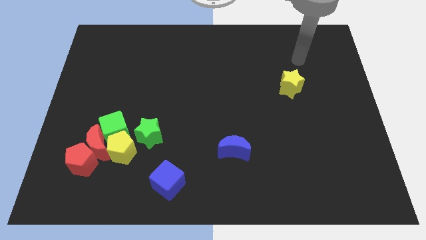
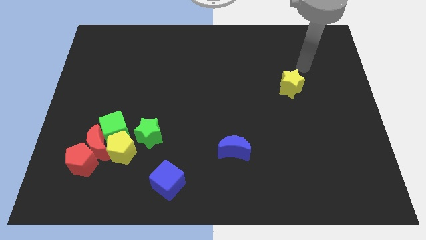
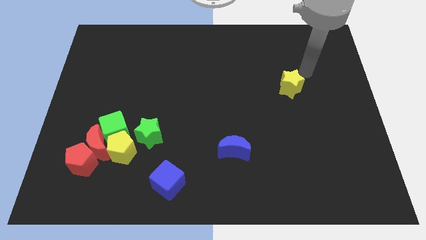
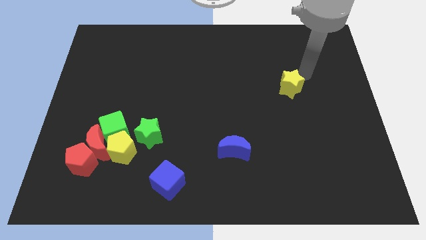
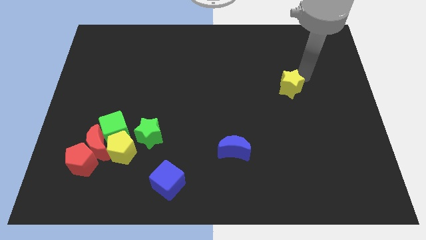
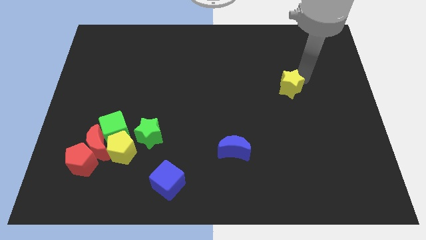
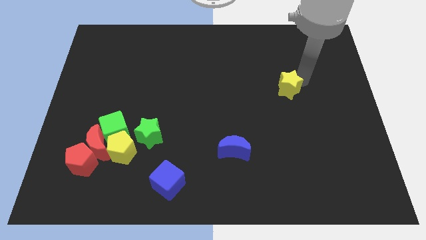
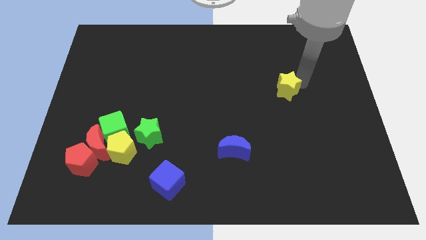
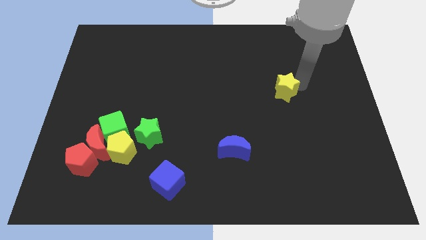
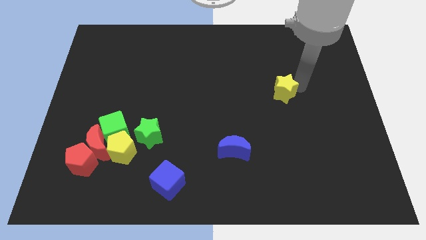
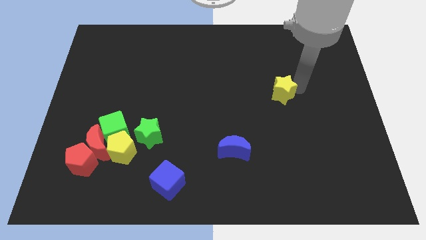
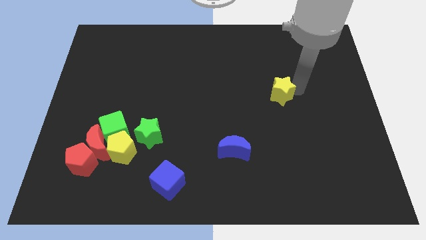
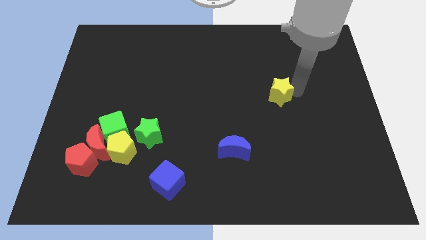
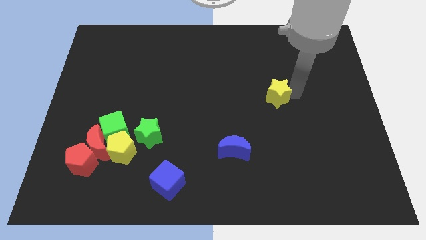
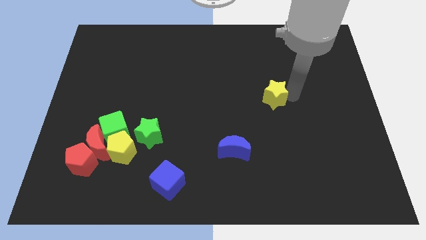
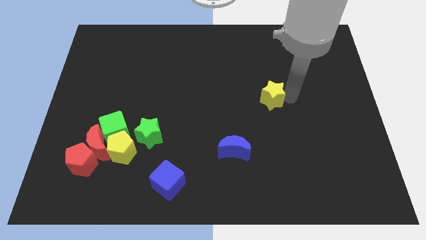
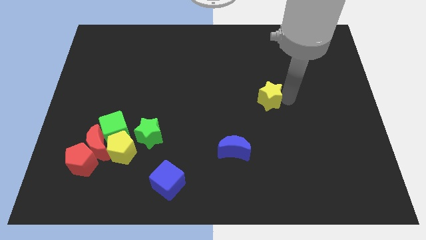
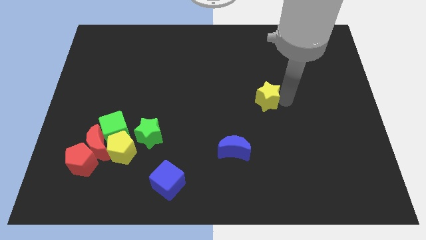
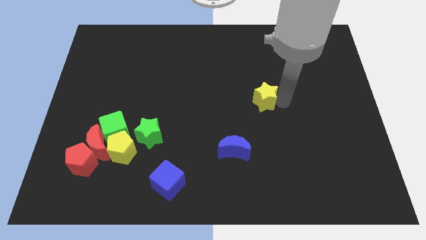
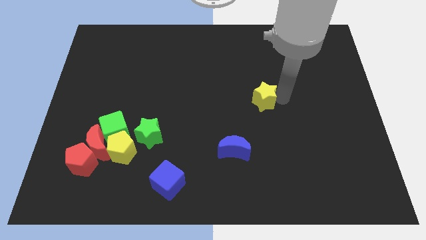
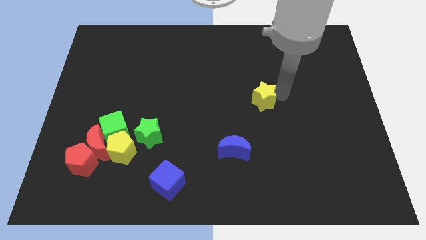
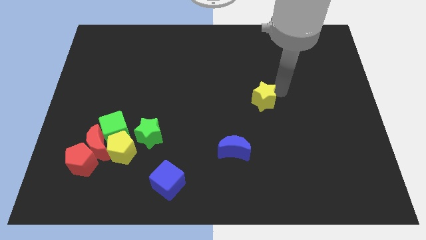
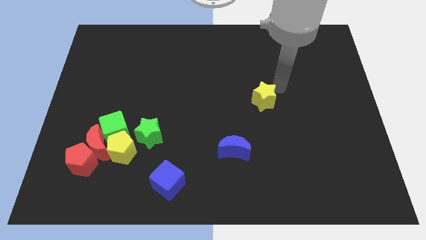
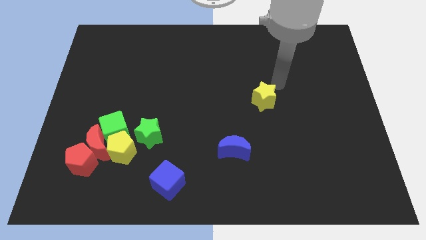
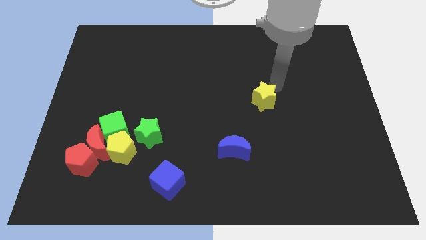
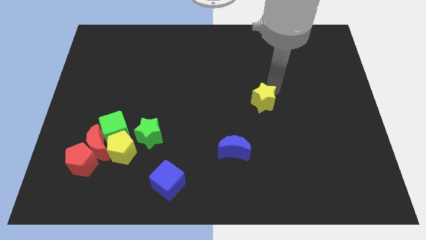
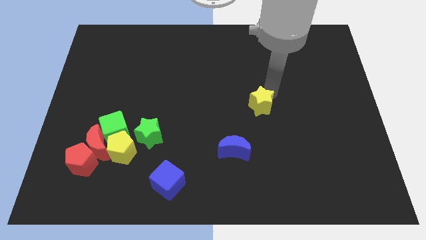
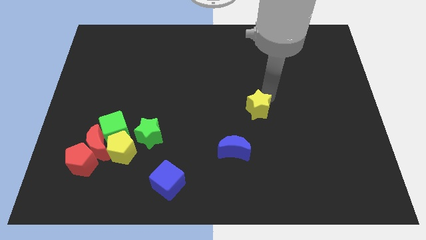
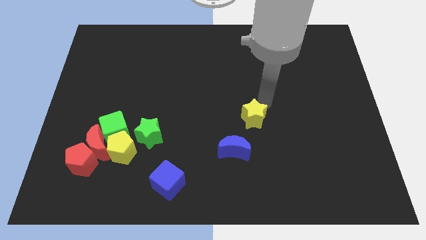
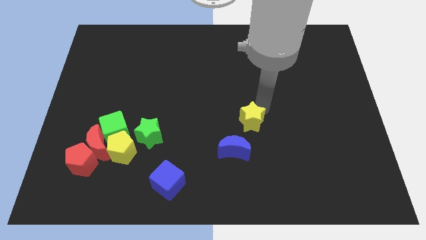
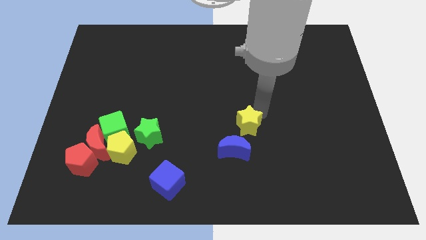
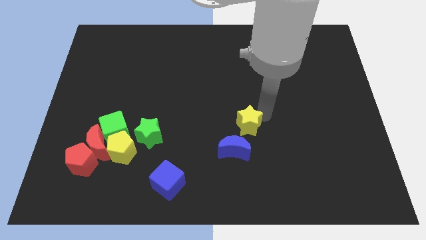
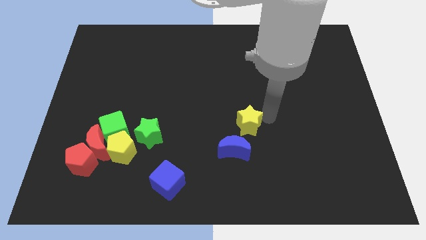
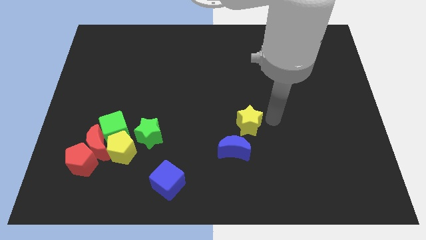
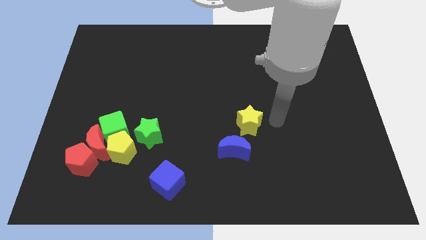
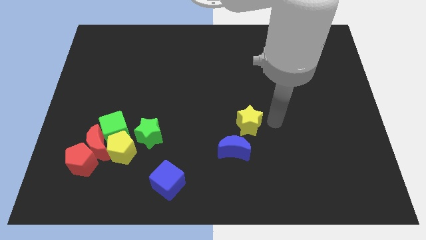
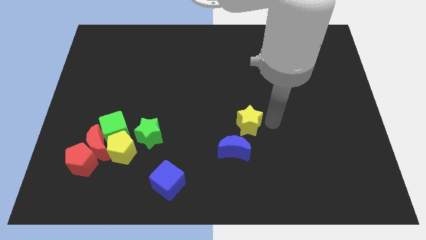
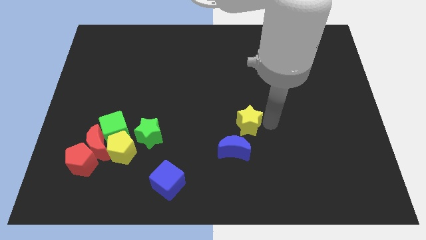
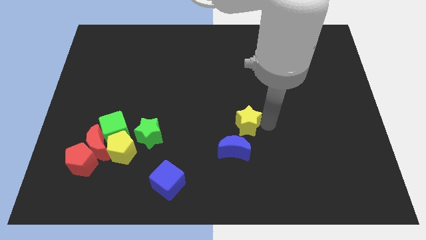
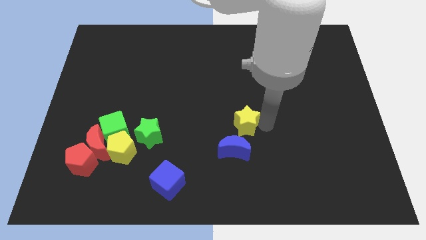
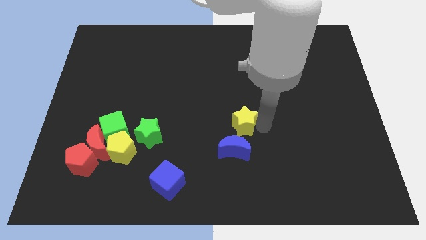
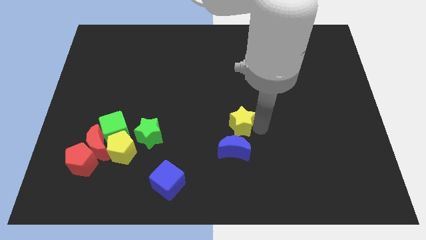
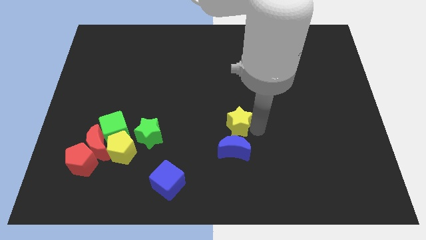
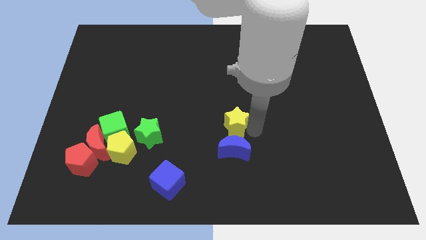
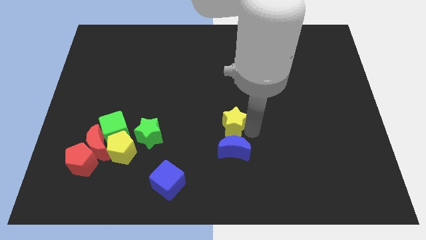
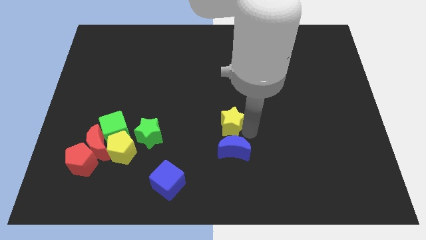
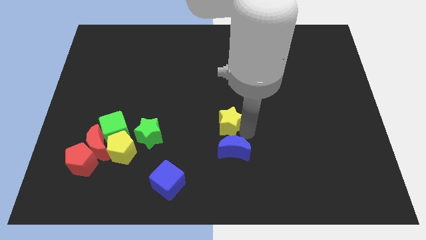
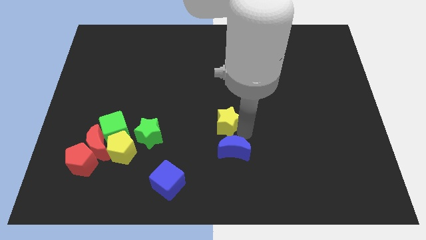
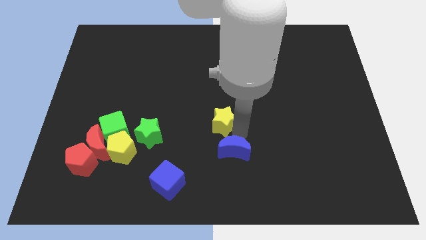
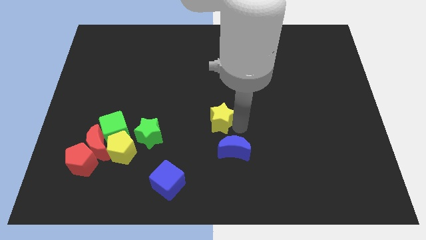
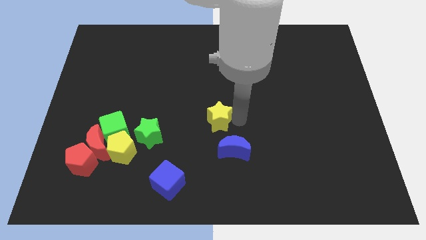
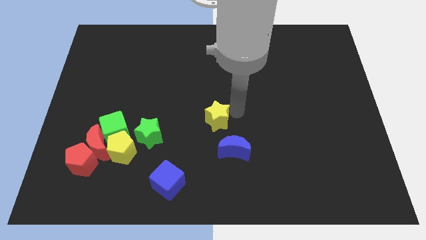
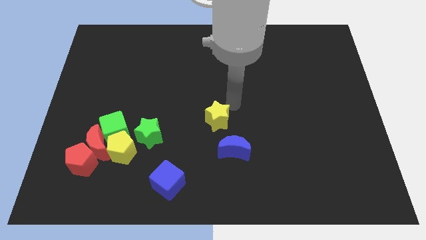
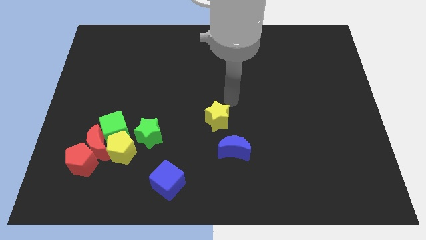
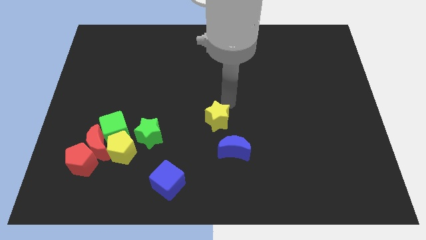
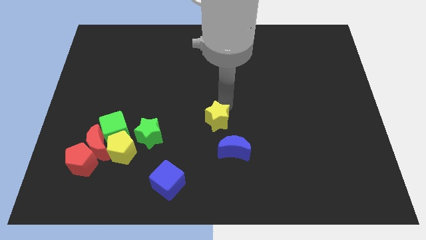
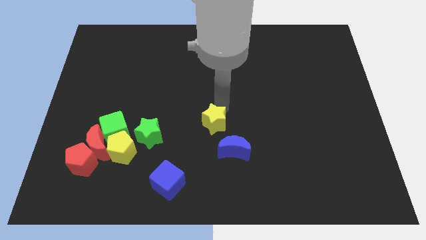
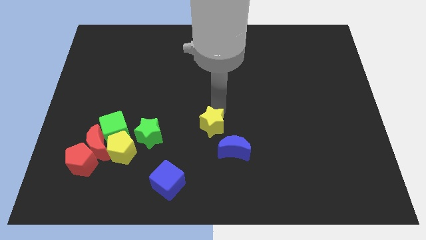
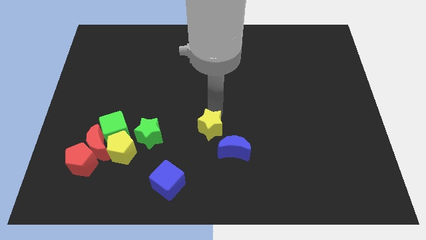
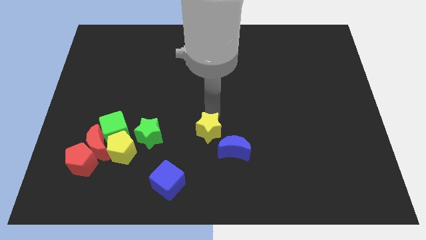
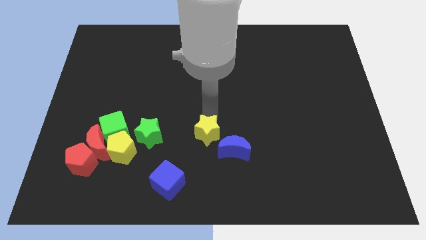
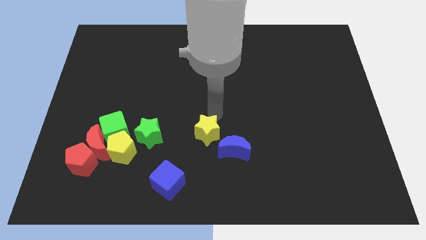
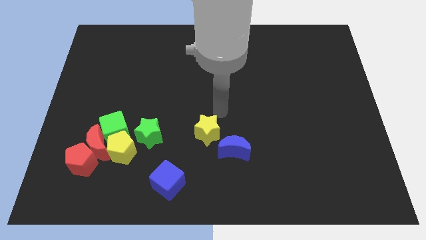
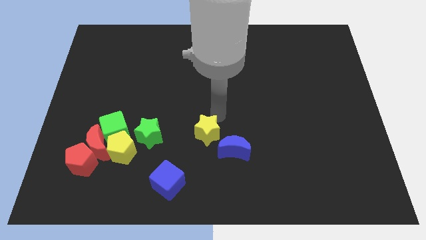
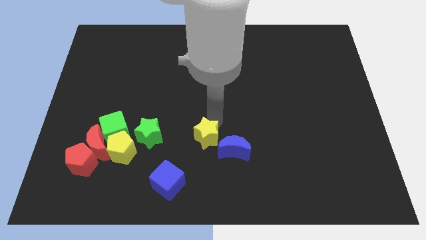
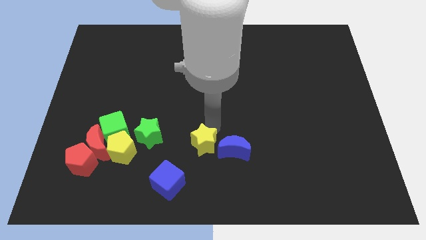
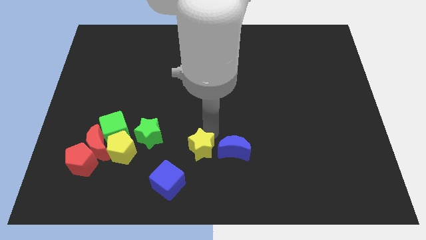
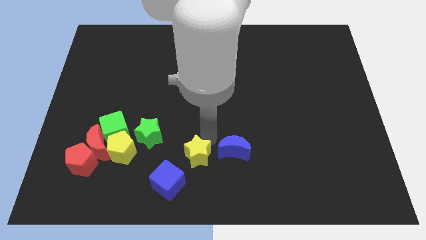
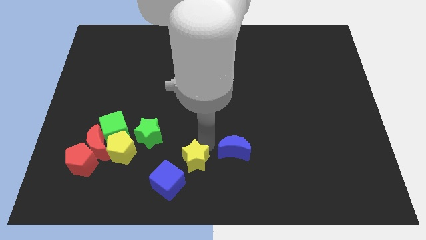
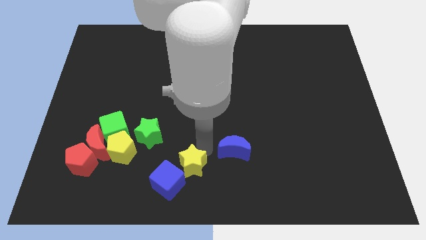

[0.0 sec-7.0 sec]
push the yellow star towards the blue cube
